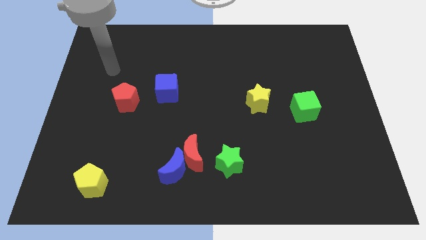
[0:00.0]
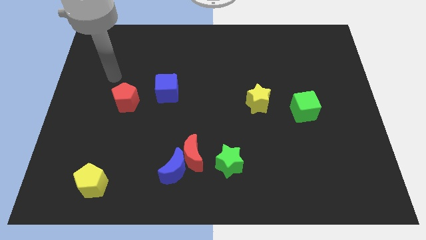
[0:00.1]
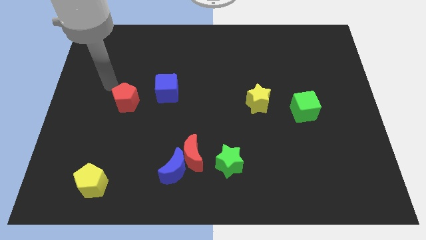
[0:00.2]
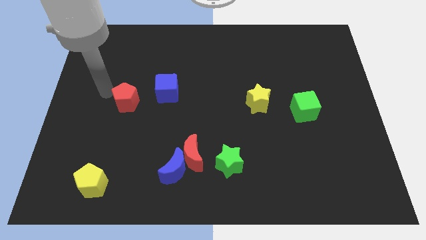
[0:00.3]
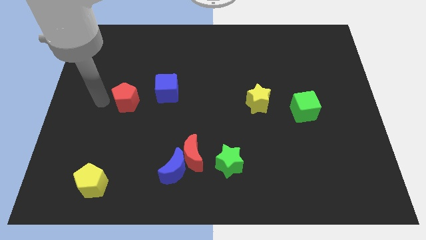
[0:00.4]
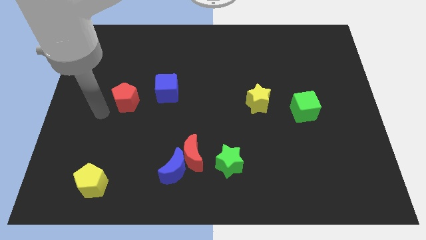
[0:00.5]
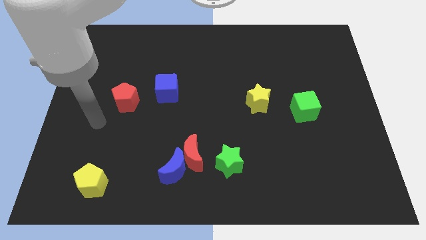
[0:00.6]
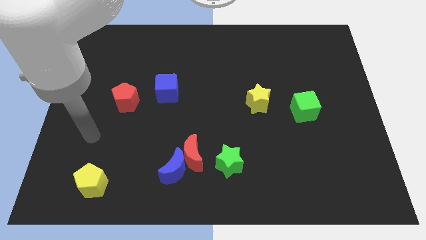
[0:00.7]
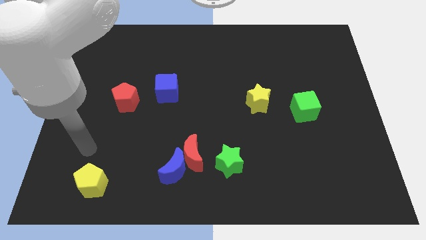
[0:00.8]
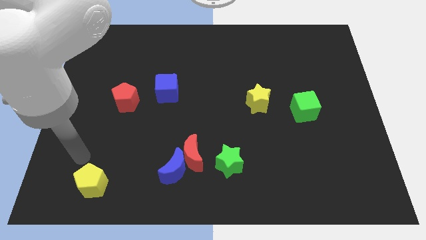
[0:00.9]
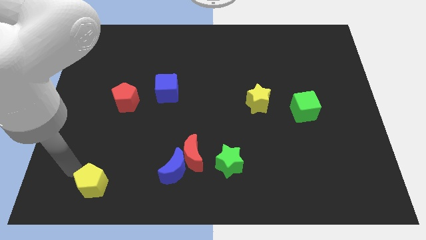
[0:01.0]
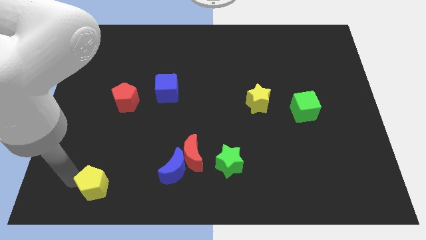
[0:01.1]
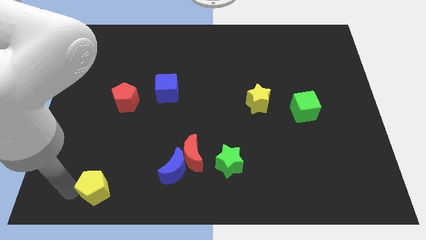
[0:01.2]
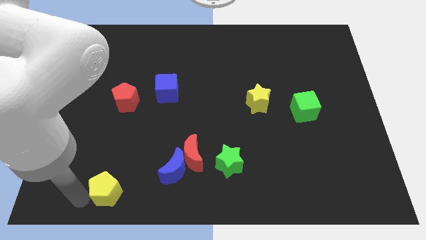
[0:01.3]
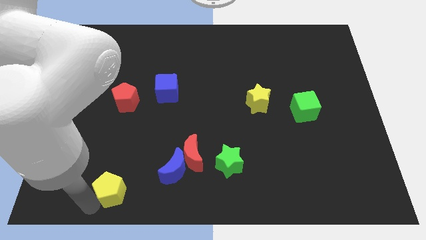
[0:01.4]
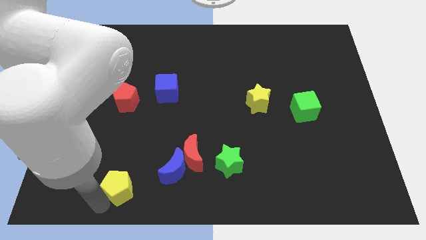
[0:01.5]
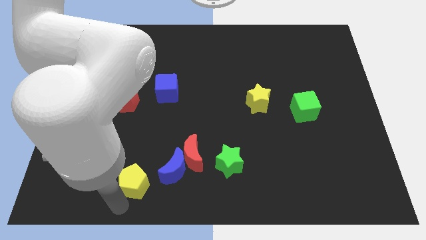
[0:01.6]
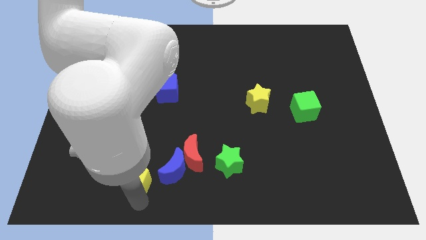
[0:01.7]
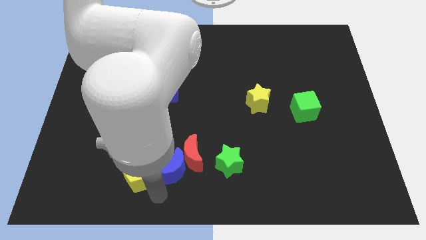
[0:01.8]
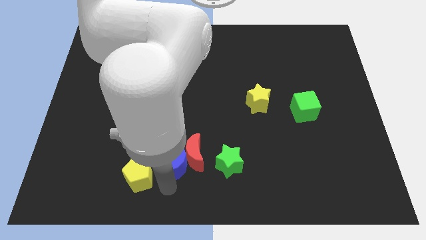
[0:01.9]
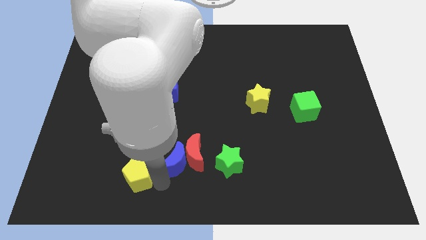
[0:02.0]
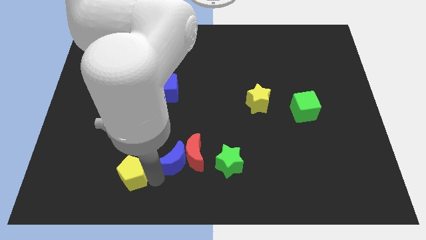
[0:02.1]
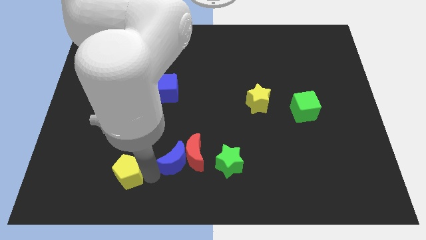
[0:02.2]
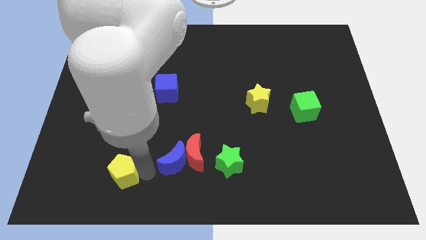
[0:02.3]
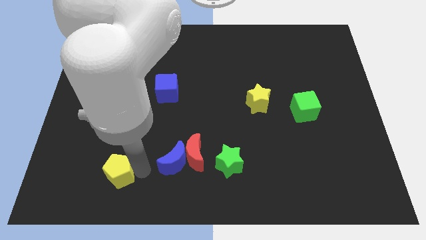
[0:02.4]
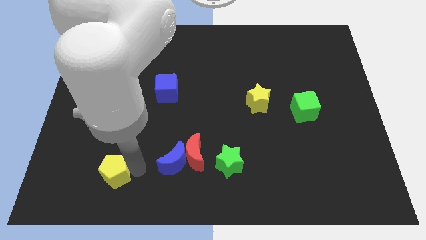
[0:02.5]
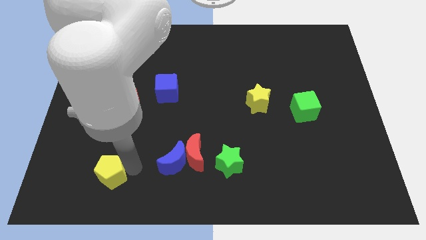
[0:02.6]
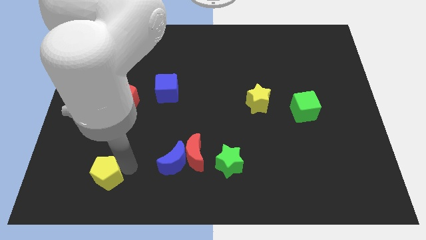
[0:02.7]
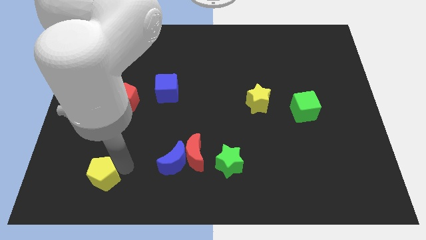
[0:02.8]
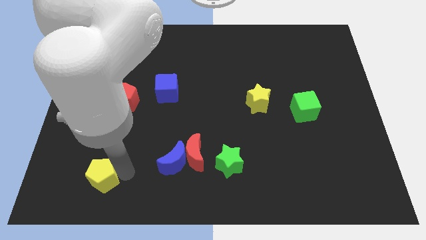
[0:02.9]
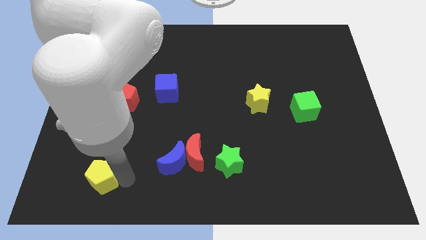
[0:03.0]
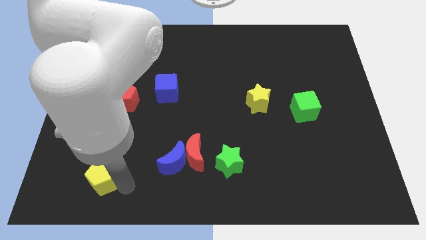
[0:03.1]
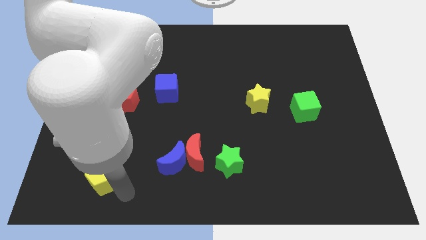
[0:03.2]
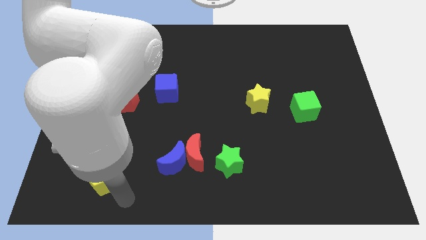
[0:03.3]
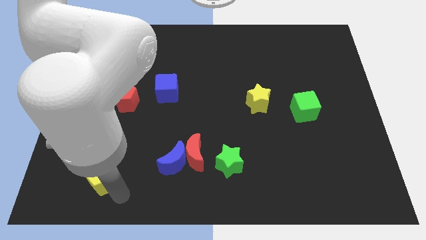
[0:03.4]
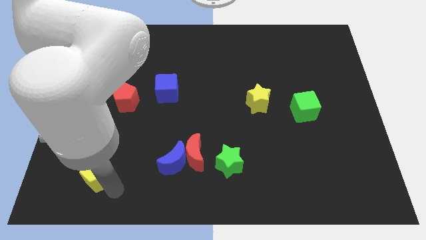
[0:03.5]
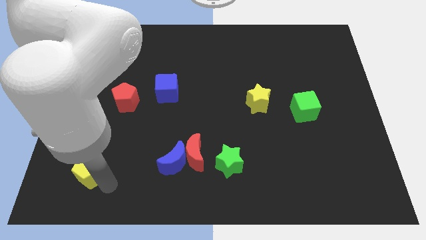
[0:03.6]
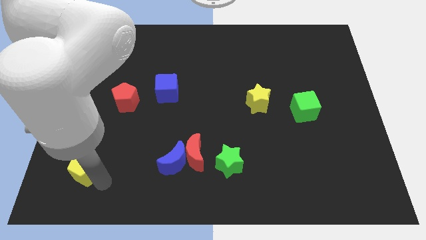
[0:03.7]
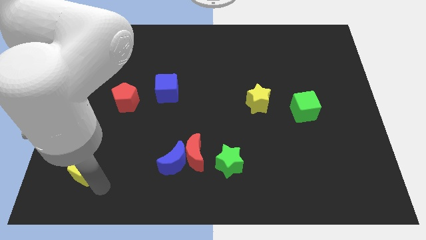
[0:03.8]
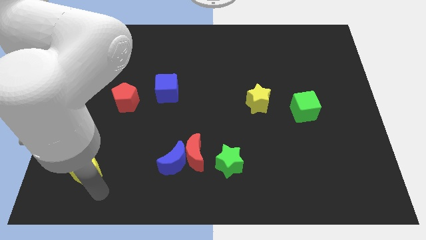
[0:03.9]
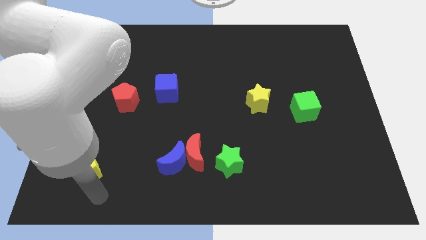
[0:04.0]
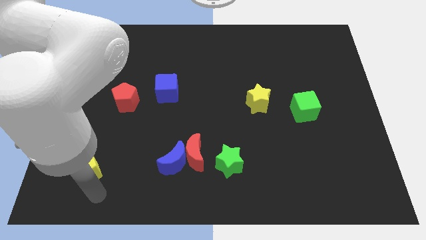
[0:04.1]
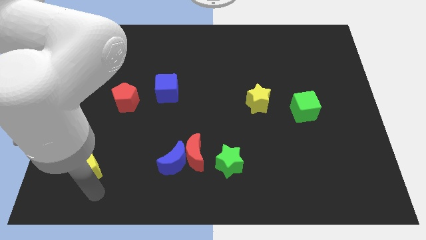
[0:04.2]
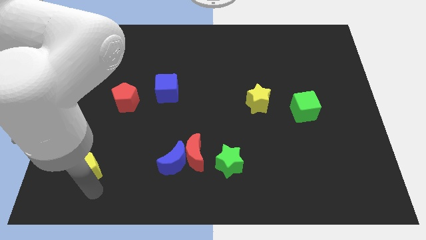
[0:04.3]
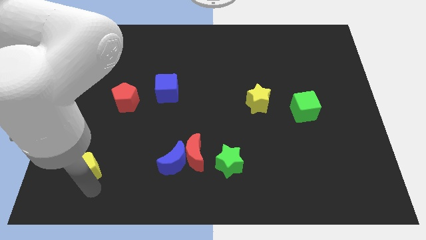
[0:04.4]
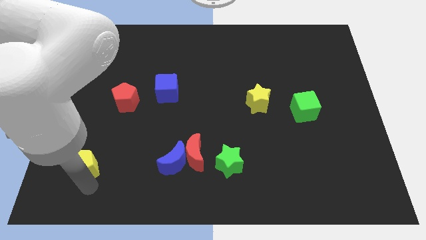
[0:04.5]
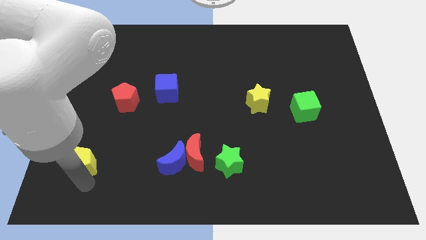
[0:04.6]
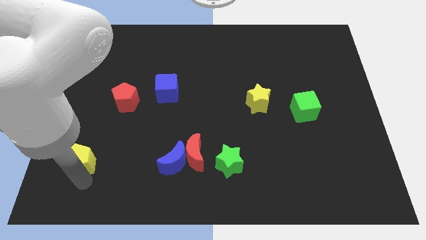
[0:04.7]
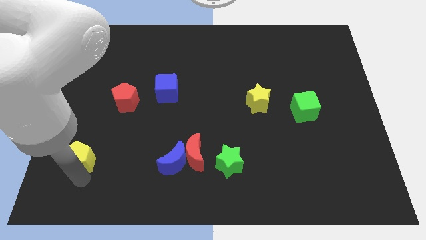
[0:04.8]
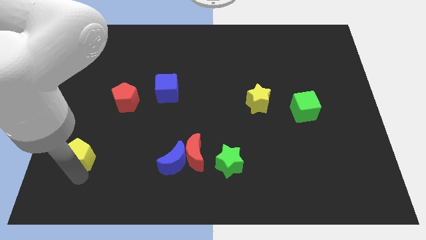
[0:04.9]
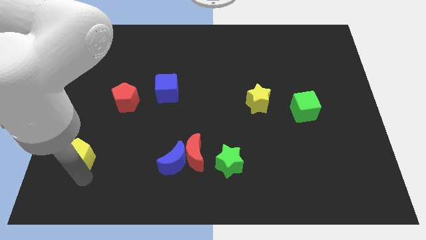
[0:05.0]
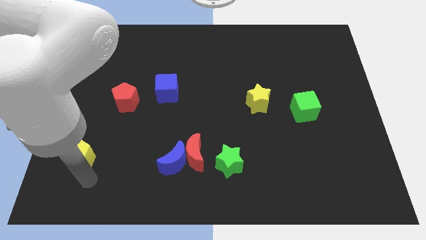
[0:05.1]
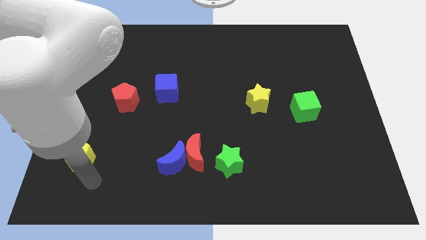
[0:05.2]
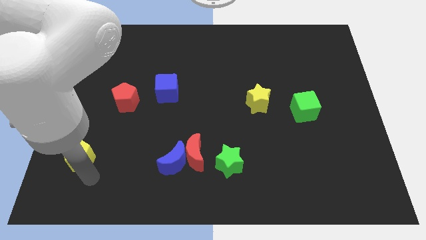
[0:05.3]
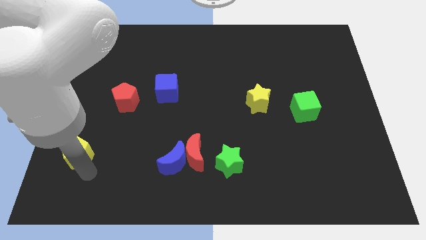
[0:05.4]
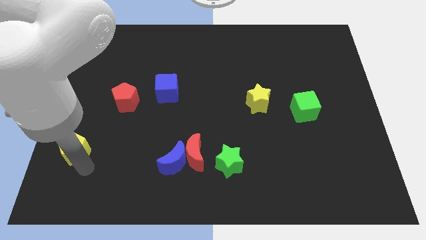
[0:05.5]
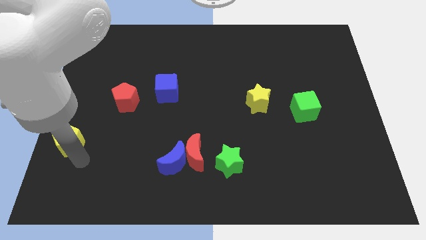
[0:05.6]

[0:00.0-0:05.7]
push the yellow pentagon to the center left

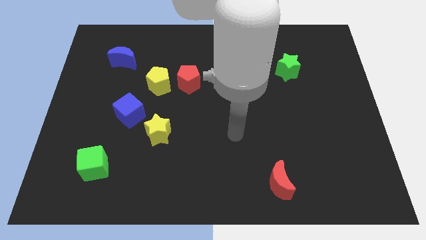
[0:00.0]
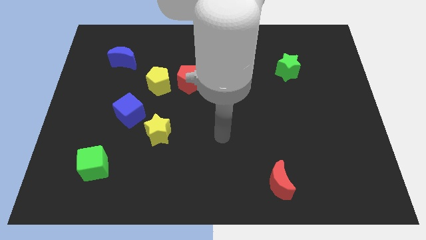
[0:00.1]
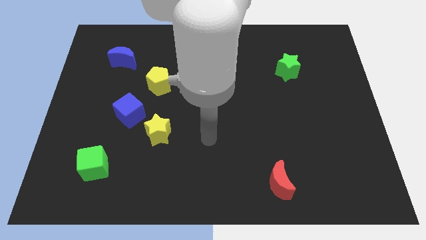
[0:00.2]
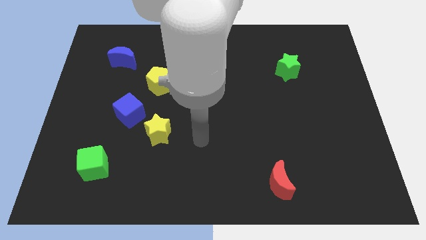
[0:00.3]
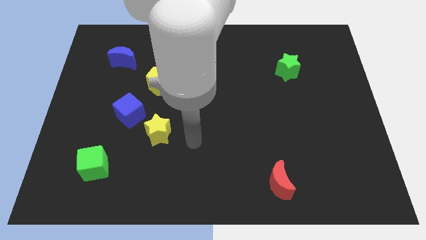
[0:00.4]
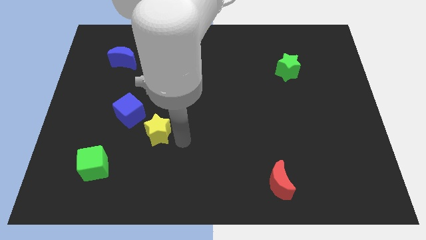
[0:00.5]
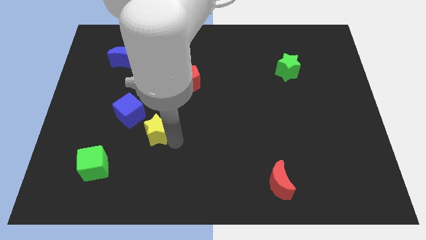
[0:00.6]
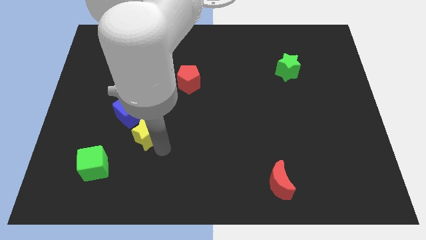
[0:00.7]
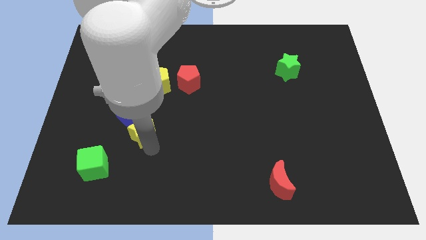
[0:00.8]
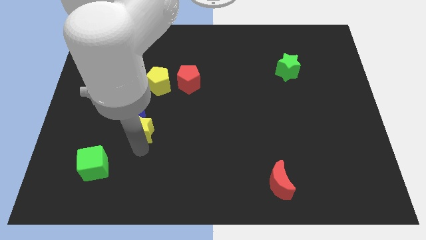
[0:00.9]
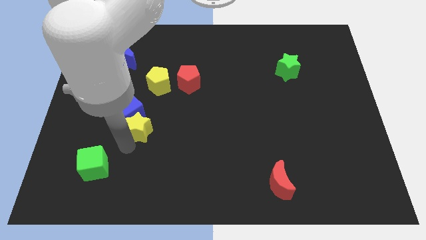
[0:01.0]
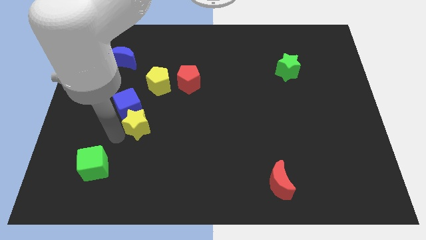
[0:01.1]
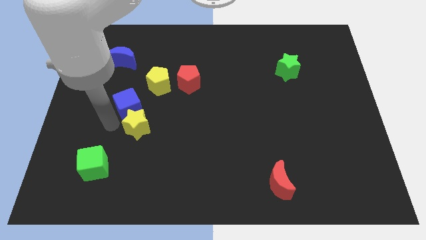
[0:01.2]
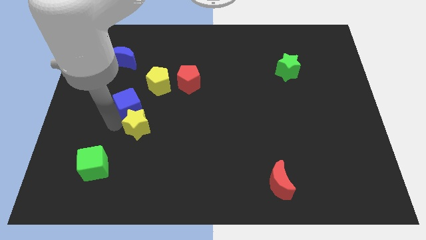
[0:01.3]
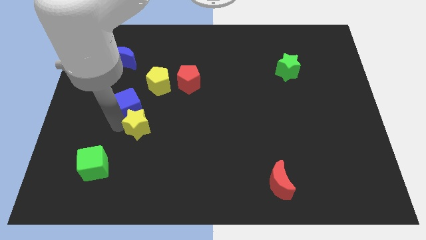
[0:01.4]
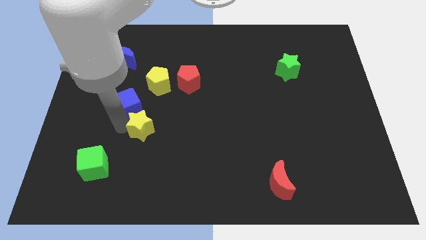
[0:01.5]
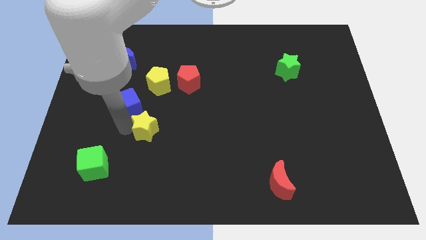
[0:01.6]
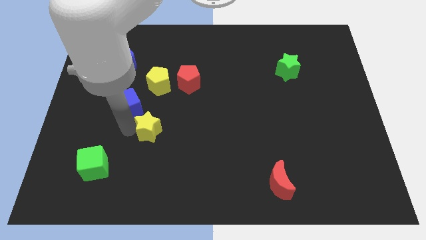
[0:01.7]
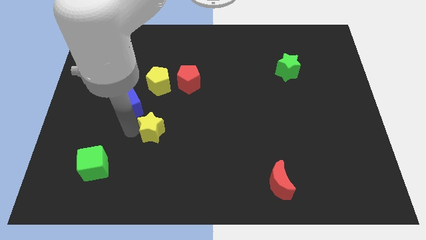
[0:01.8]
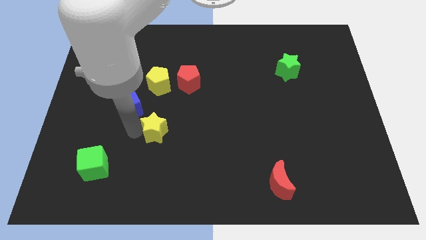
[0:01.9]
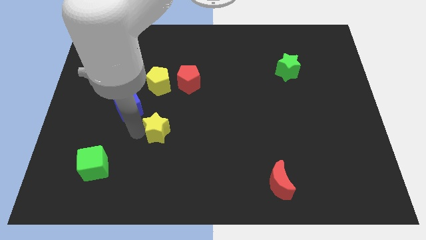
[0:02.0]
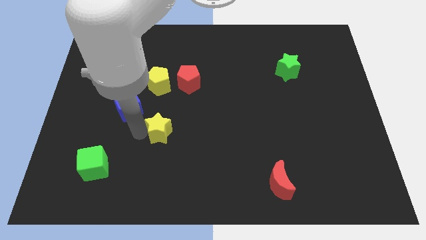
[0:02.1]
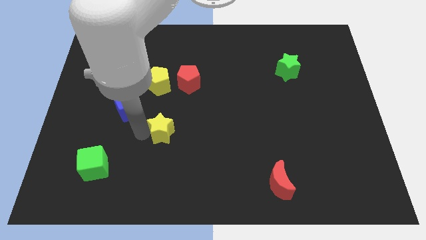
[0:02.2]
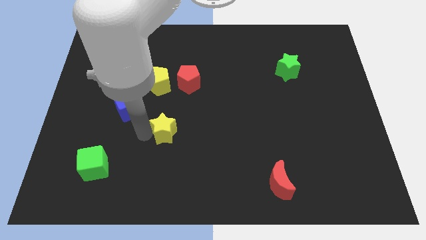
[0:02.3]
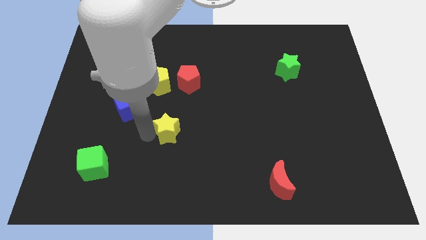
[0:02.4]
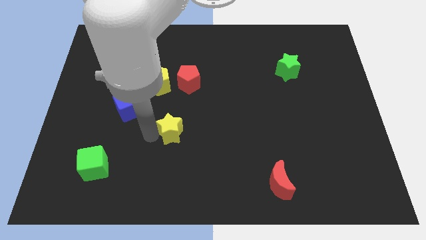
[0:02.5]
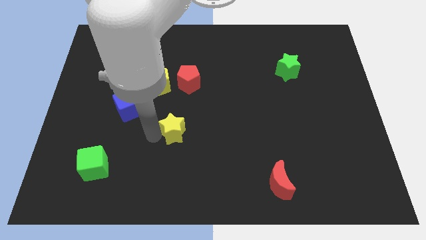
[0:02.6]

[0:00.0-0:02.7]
move the yellow star to the middle
